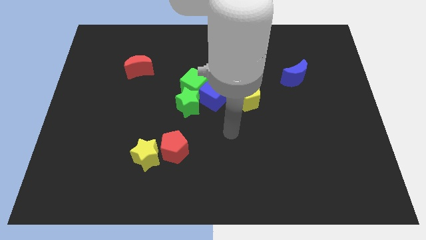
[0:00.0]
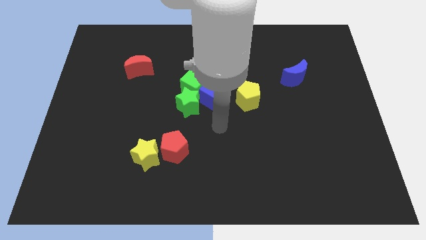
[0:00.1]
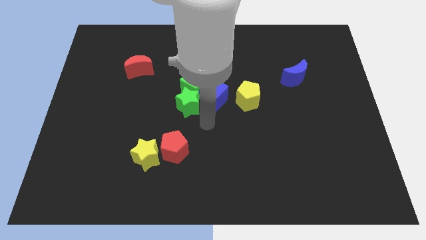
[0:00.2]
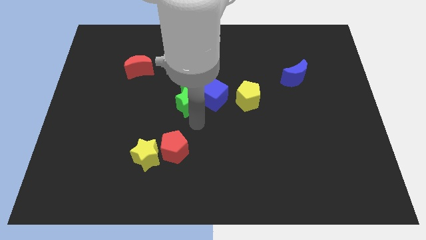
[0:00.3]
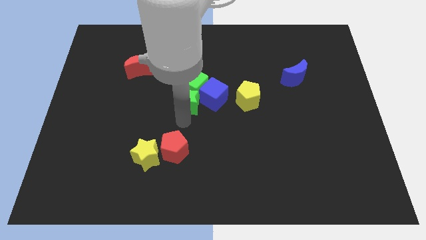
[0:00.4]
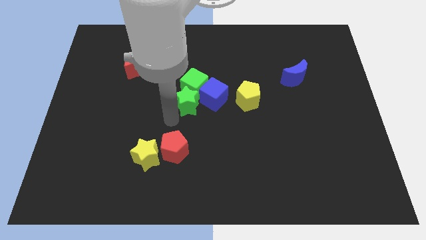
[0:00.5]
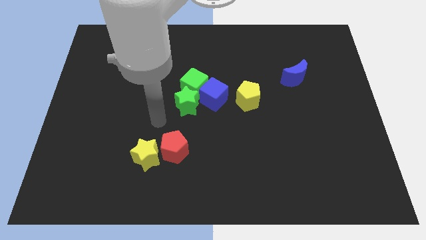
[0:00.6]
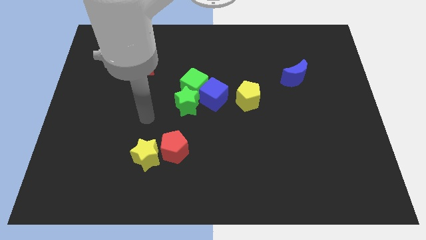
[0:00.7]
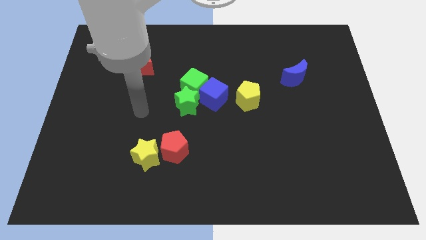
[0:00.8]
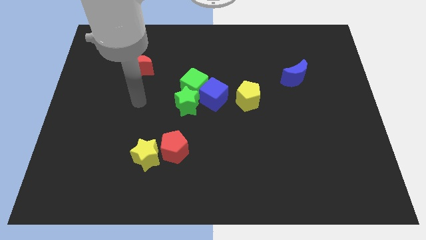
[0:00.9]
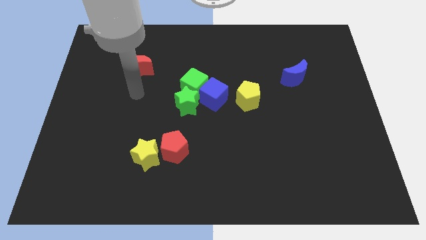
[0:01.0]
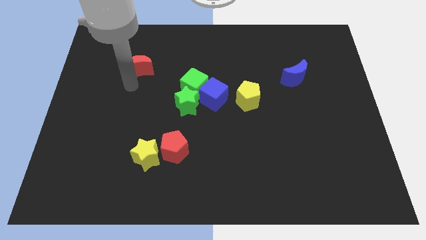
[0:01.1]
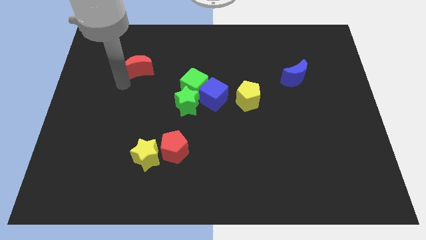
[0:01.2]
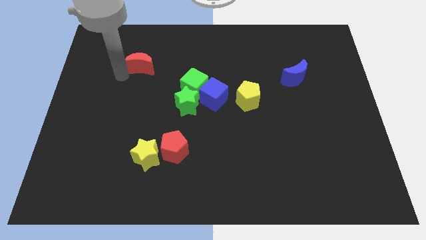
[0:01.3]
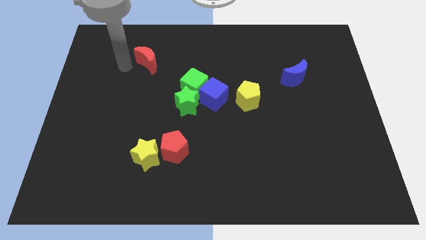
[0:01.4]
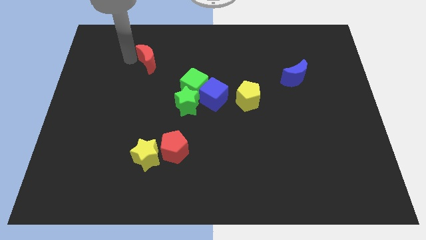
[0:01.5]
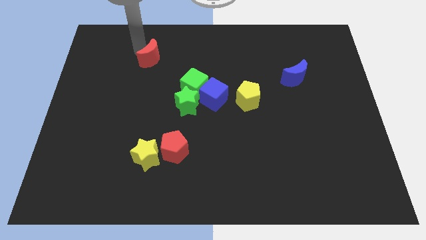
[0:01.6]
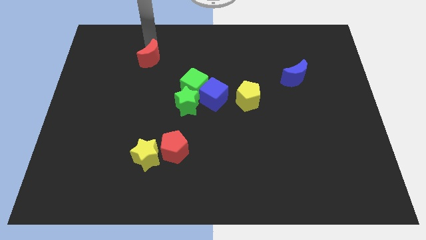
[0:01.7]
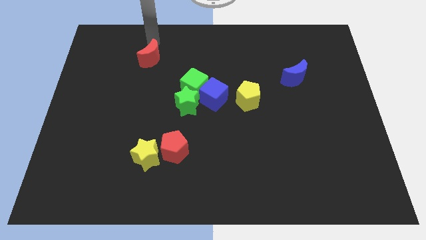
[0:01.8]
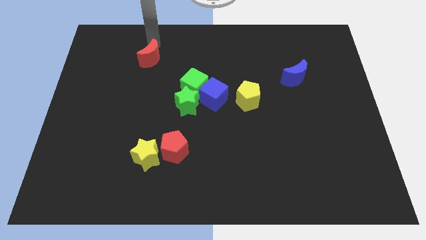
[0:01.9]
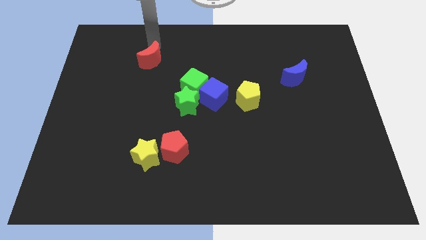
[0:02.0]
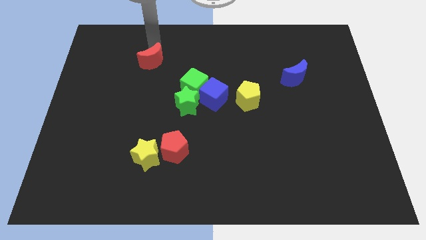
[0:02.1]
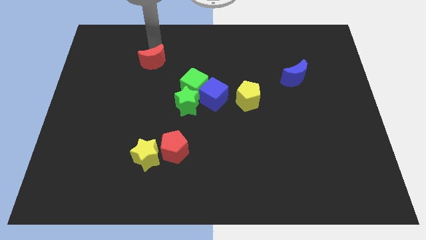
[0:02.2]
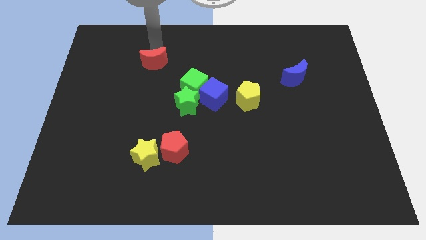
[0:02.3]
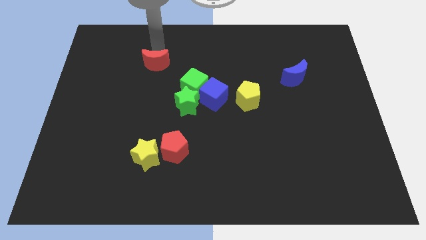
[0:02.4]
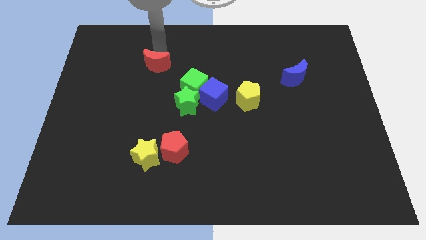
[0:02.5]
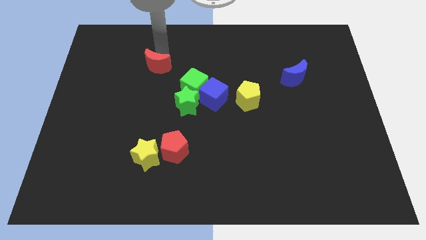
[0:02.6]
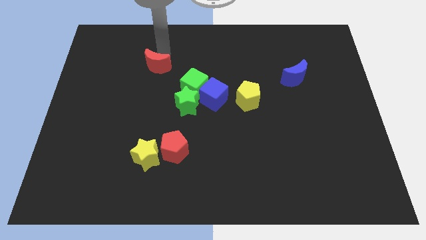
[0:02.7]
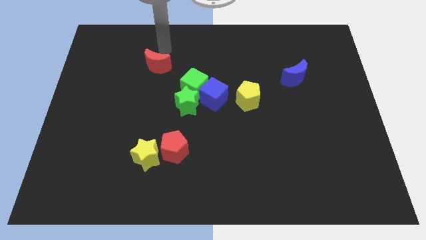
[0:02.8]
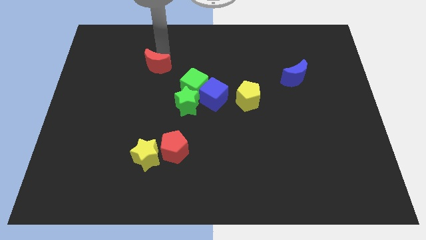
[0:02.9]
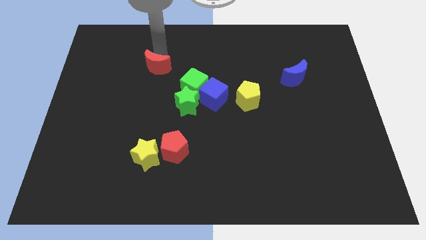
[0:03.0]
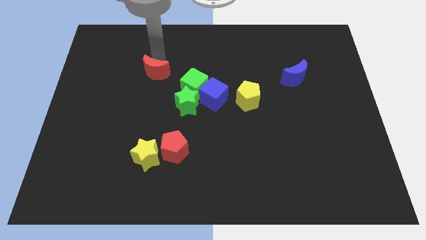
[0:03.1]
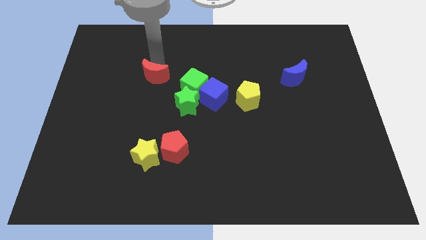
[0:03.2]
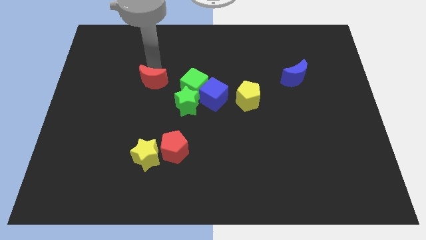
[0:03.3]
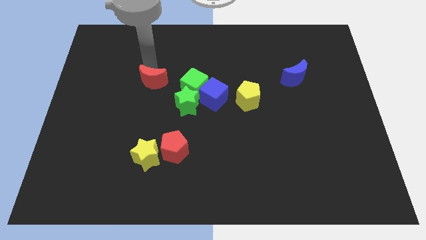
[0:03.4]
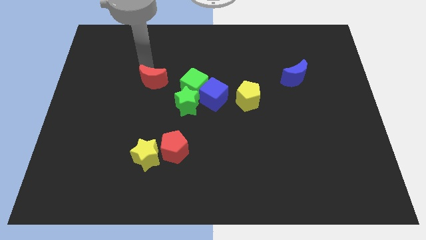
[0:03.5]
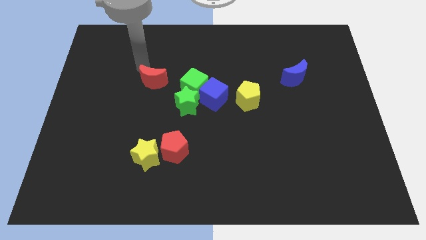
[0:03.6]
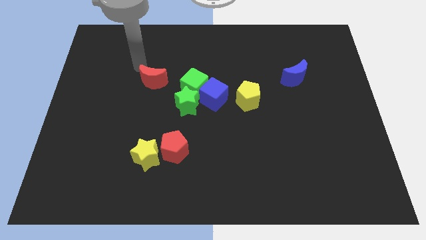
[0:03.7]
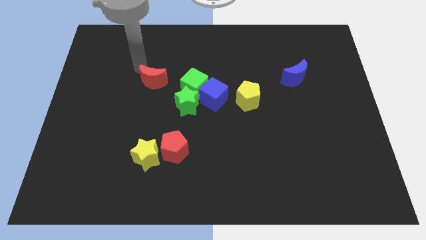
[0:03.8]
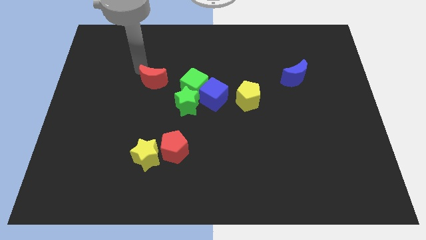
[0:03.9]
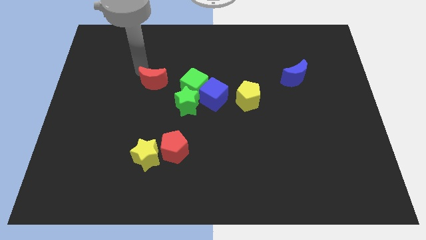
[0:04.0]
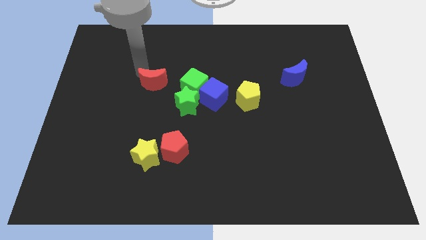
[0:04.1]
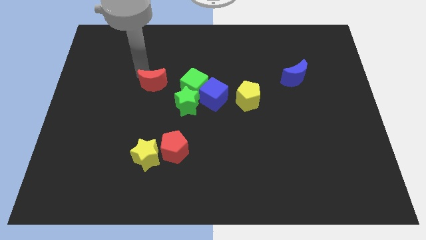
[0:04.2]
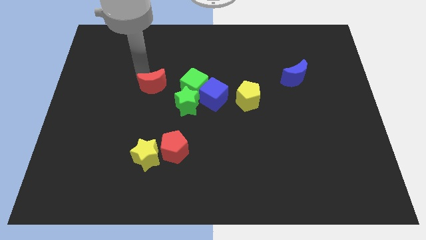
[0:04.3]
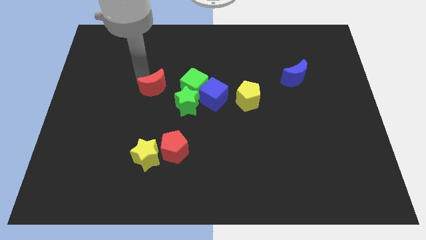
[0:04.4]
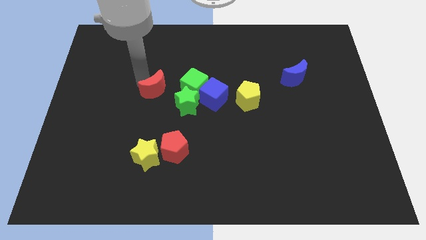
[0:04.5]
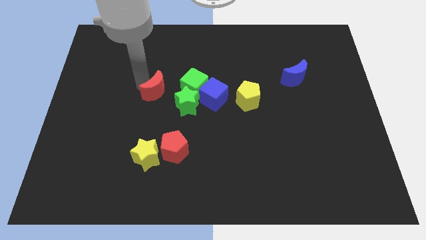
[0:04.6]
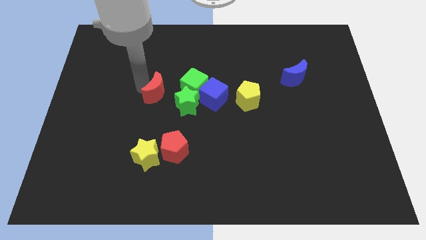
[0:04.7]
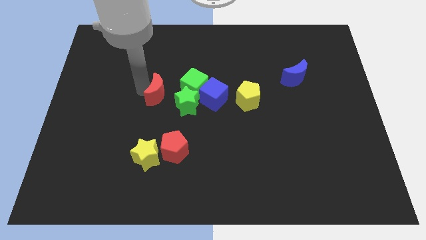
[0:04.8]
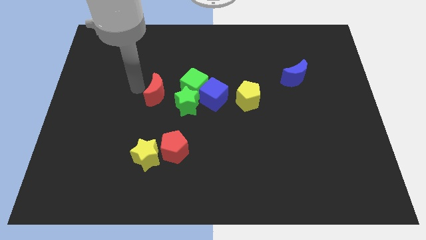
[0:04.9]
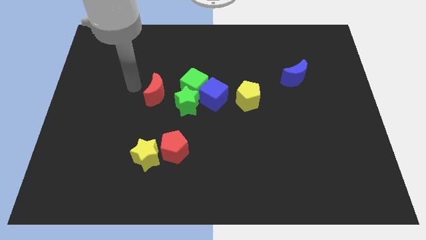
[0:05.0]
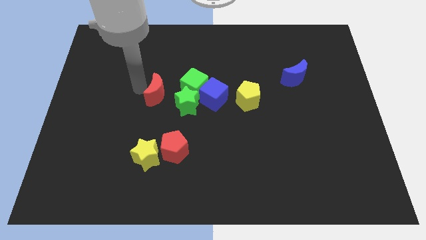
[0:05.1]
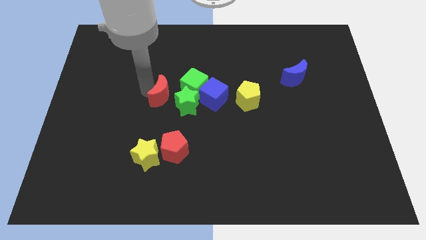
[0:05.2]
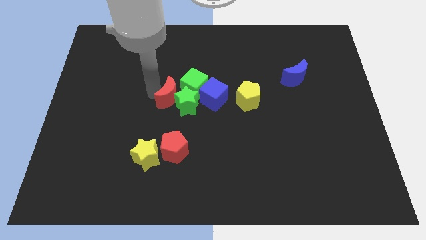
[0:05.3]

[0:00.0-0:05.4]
move the red moon to the green star

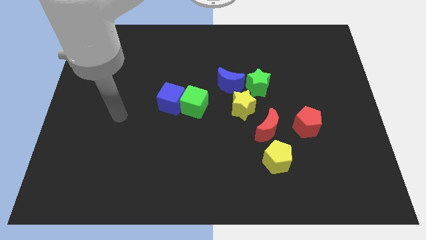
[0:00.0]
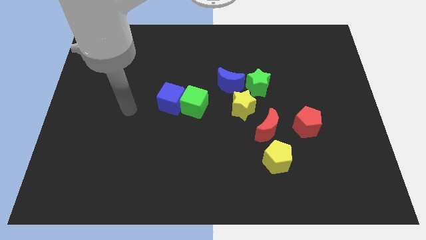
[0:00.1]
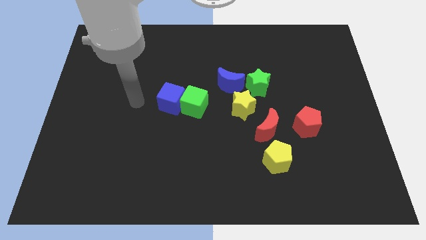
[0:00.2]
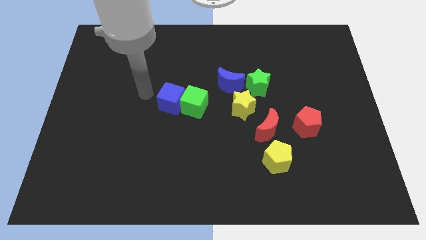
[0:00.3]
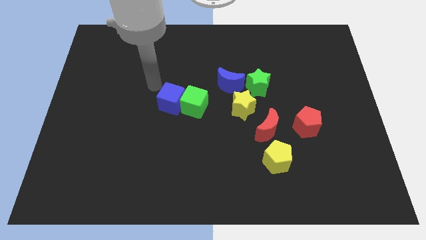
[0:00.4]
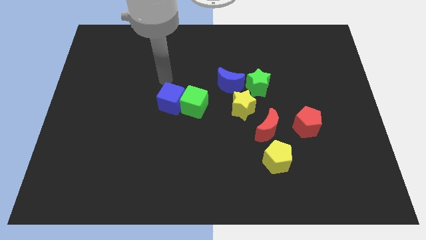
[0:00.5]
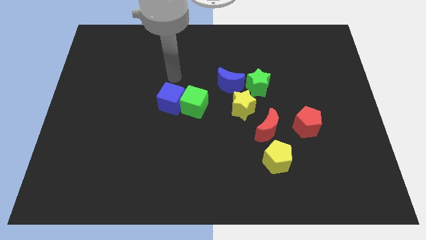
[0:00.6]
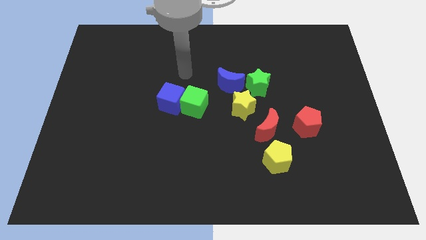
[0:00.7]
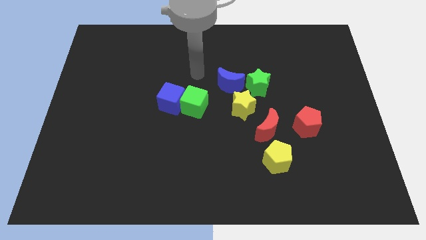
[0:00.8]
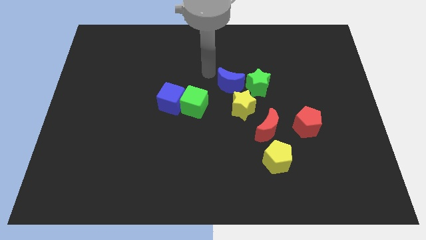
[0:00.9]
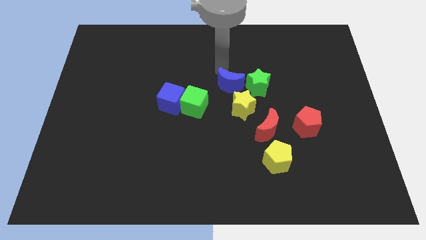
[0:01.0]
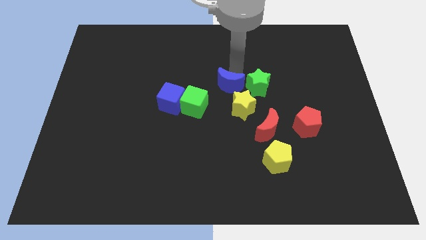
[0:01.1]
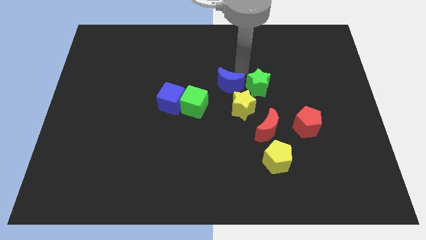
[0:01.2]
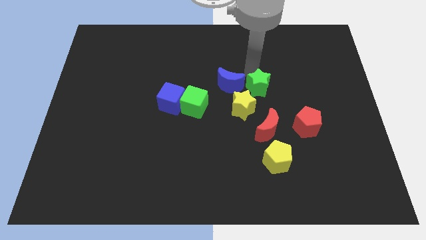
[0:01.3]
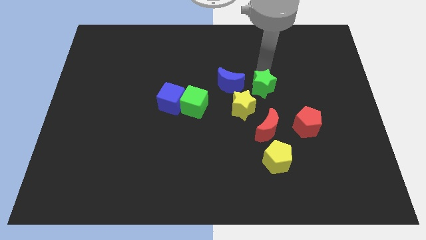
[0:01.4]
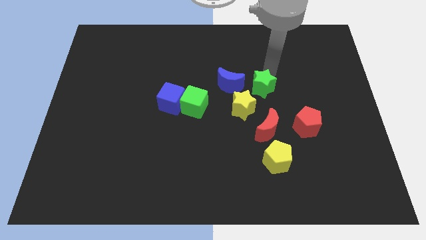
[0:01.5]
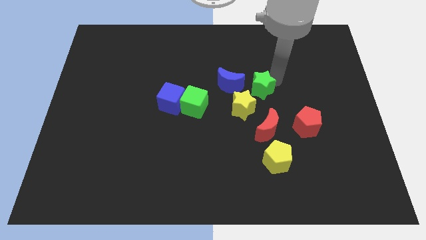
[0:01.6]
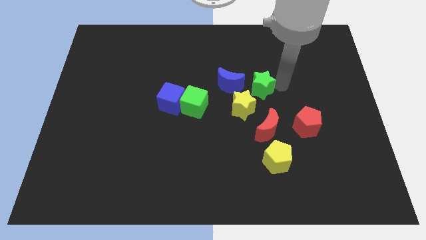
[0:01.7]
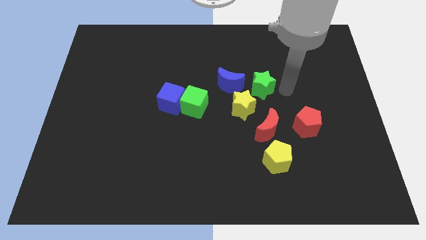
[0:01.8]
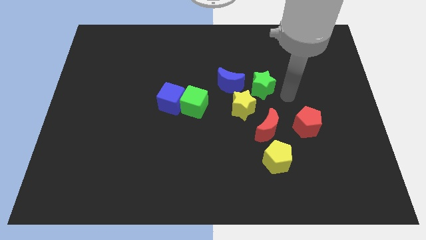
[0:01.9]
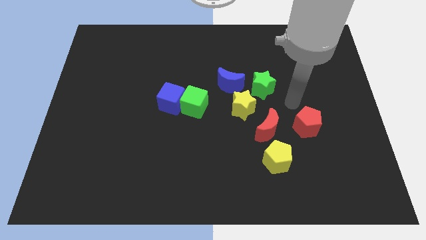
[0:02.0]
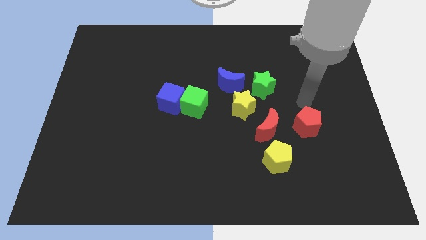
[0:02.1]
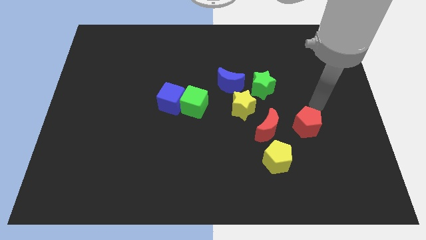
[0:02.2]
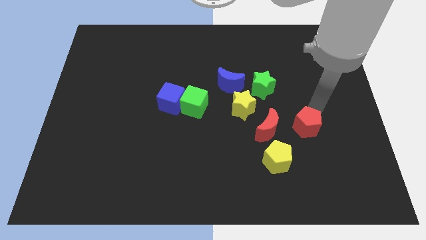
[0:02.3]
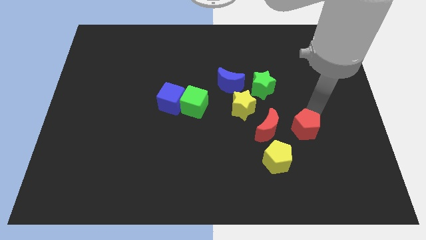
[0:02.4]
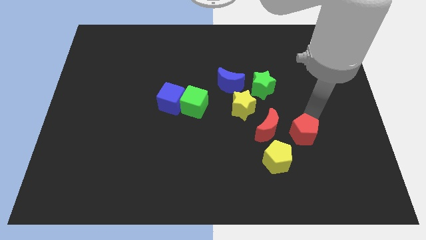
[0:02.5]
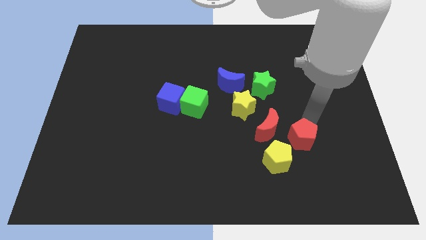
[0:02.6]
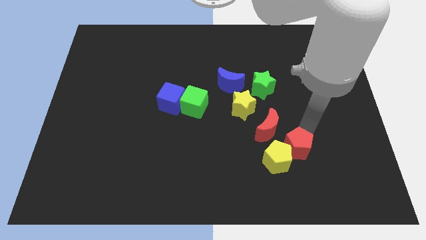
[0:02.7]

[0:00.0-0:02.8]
move the red pentagon next to the yellow pentagon
